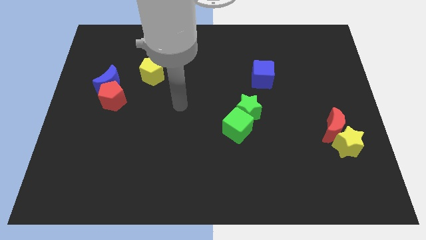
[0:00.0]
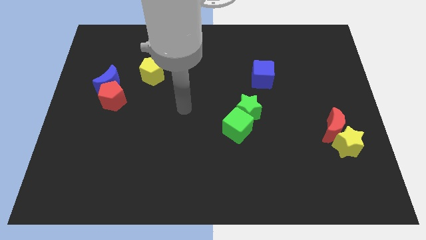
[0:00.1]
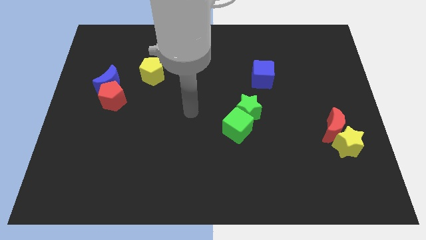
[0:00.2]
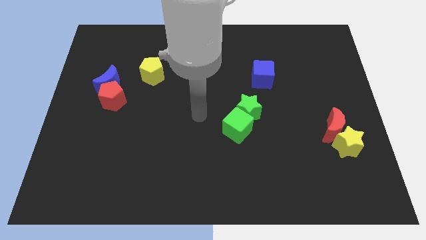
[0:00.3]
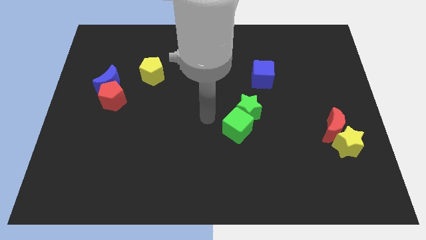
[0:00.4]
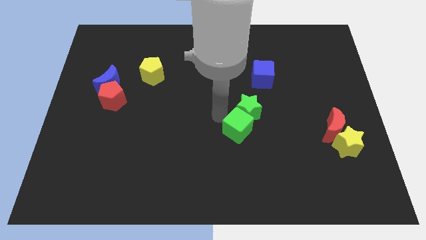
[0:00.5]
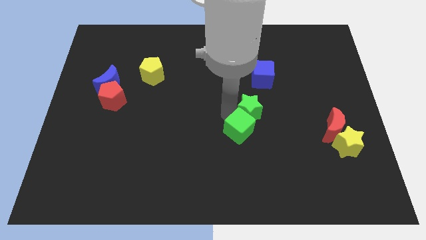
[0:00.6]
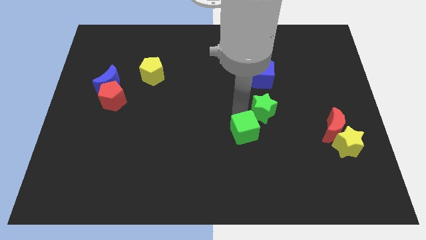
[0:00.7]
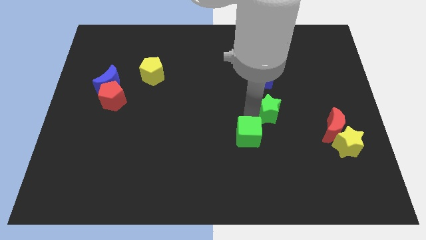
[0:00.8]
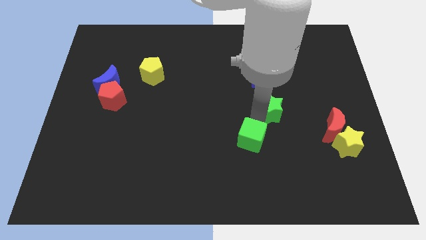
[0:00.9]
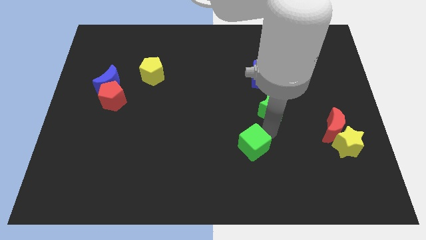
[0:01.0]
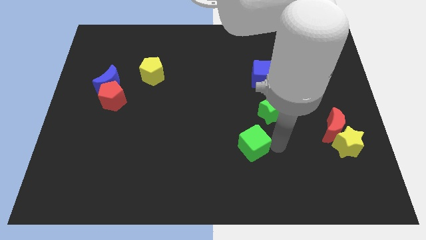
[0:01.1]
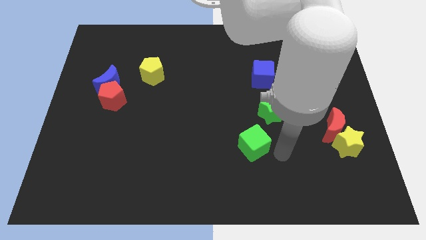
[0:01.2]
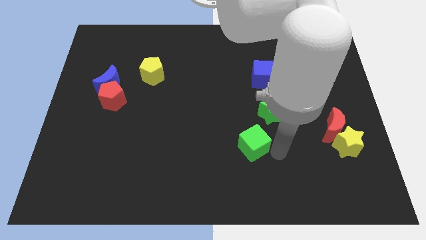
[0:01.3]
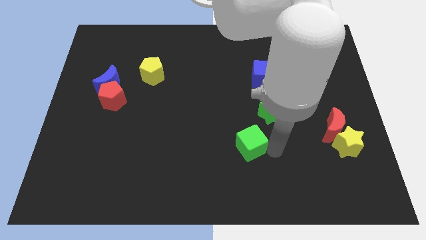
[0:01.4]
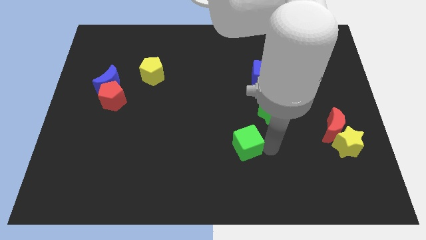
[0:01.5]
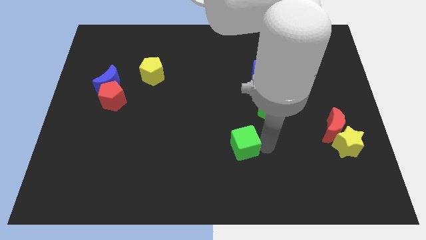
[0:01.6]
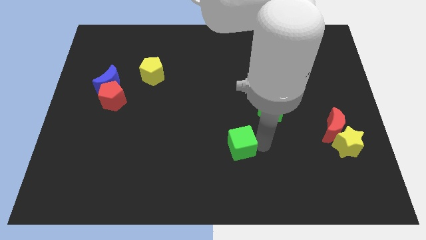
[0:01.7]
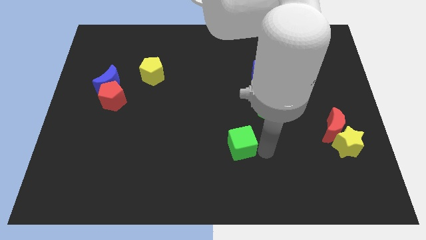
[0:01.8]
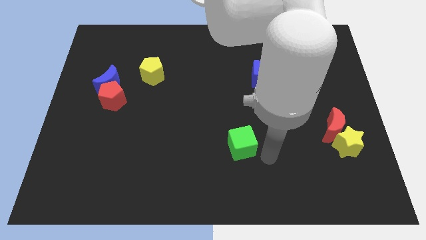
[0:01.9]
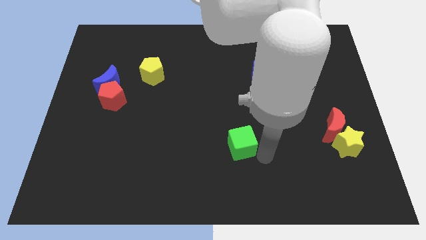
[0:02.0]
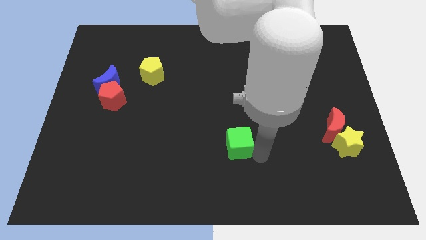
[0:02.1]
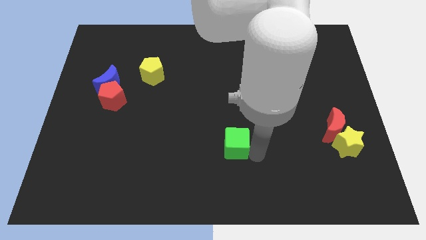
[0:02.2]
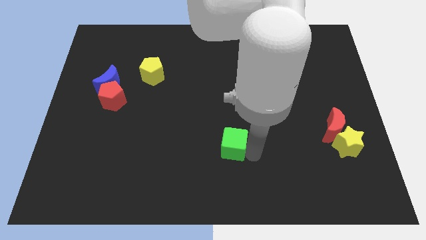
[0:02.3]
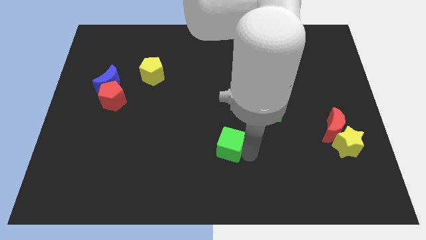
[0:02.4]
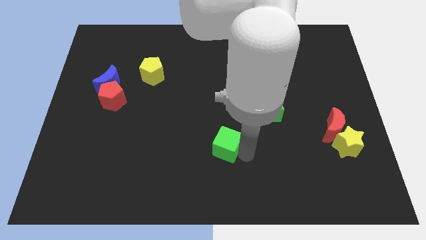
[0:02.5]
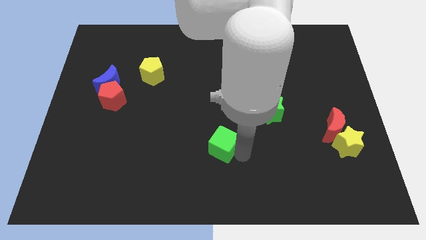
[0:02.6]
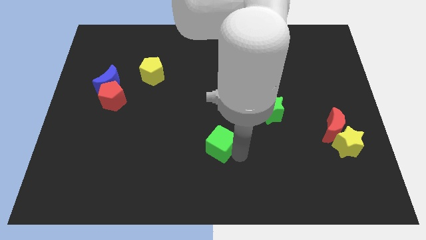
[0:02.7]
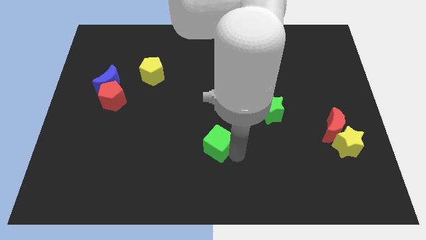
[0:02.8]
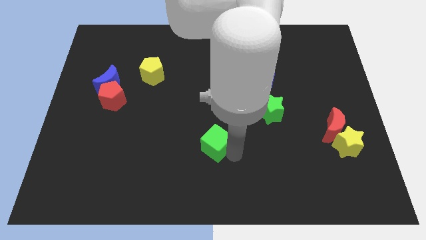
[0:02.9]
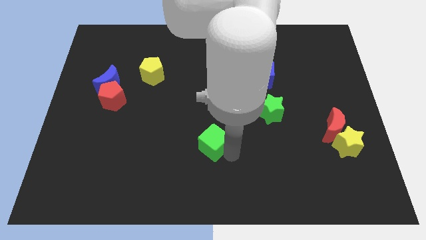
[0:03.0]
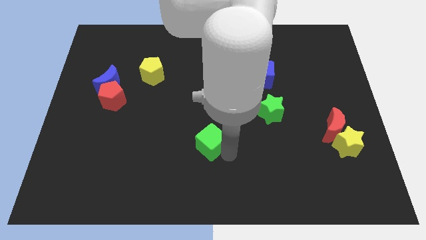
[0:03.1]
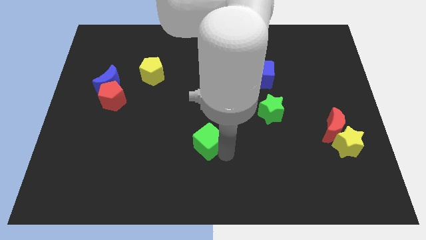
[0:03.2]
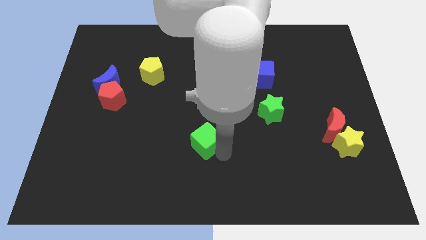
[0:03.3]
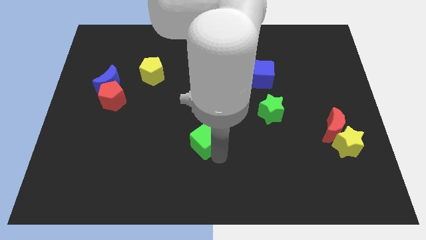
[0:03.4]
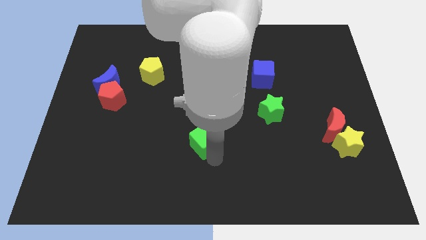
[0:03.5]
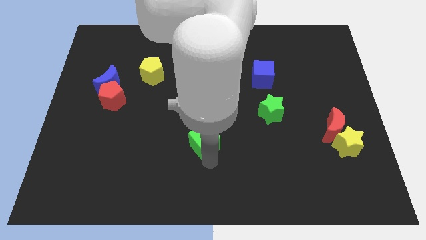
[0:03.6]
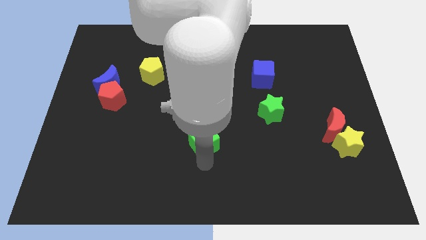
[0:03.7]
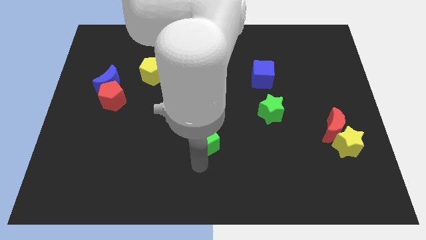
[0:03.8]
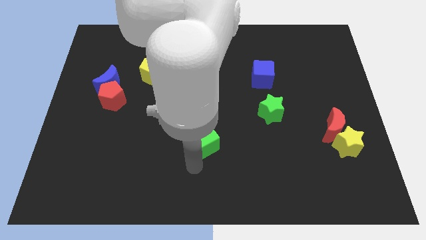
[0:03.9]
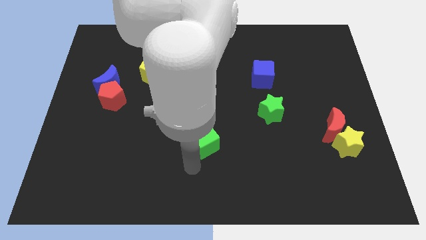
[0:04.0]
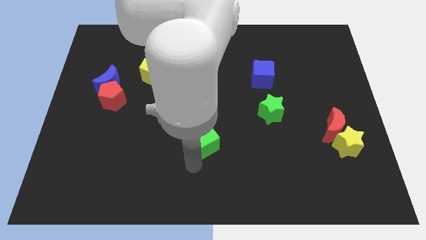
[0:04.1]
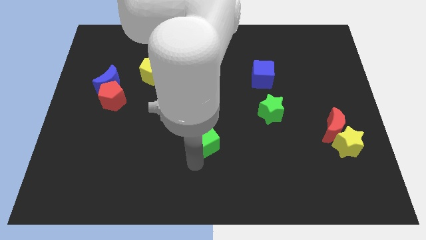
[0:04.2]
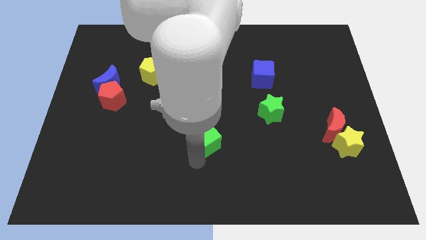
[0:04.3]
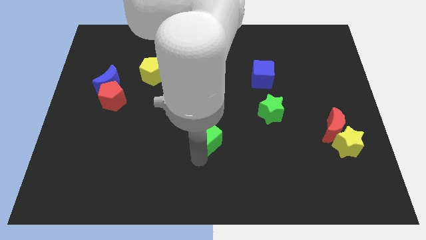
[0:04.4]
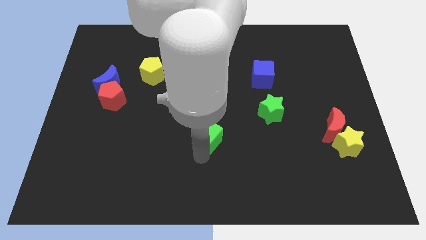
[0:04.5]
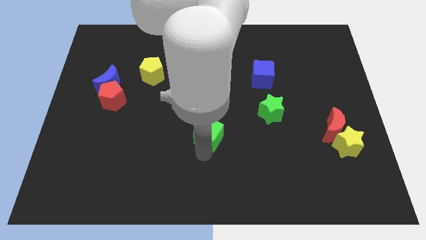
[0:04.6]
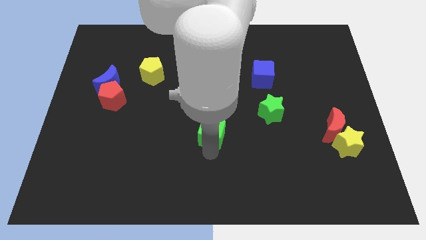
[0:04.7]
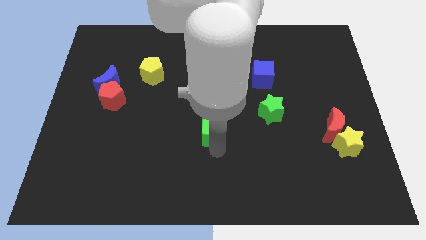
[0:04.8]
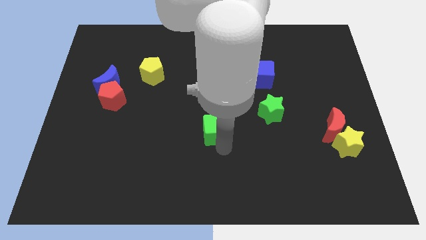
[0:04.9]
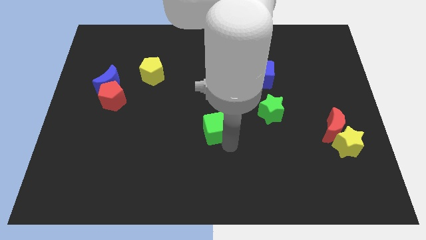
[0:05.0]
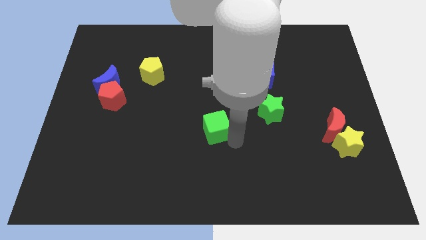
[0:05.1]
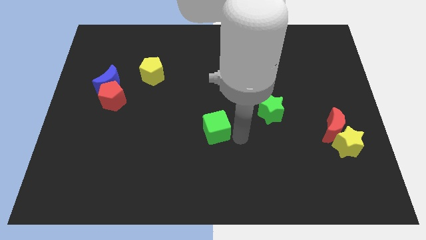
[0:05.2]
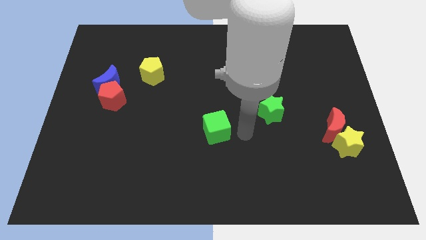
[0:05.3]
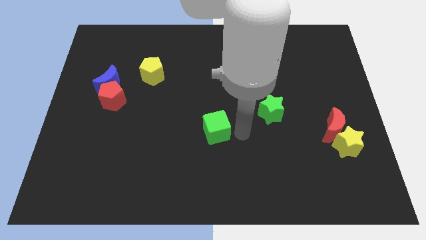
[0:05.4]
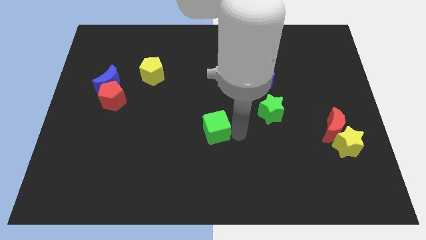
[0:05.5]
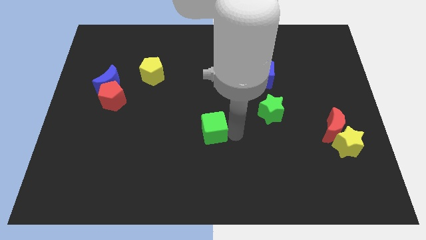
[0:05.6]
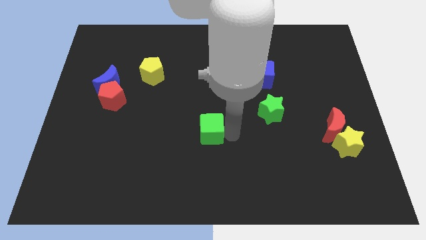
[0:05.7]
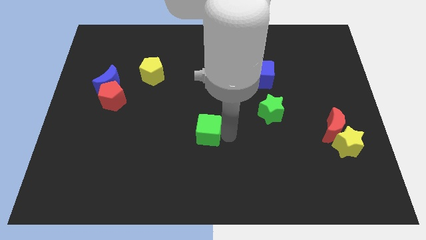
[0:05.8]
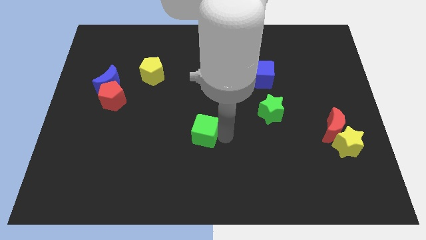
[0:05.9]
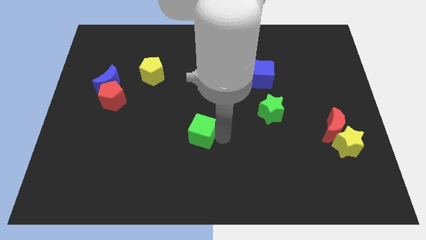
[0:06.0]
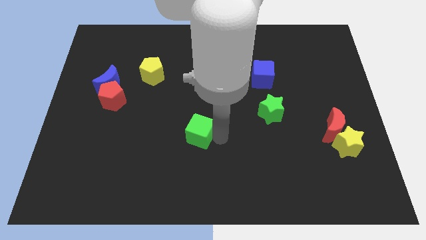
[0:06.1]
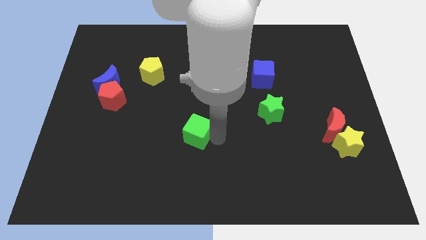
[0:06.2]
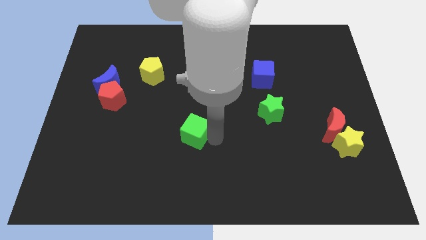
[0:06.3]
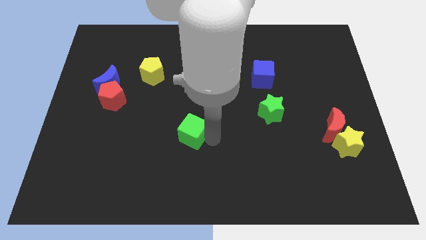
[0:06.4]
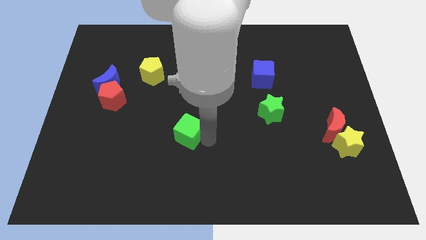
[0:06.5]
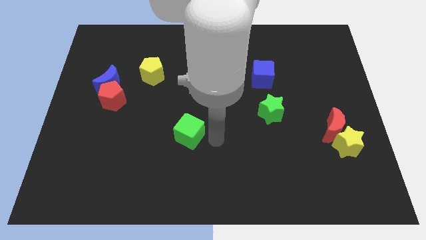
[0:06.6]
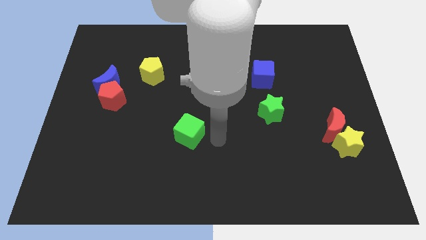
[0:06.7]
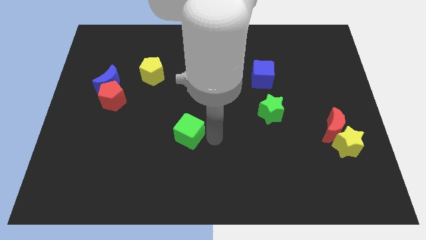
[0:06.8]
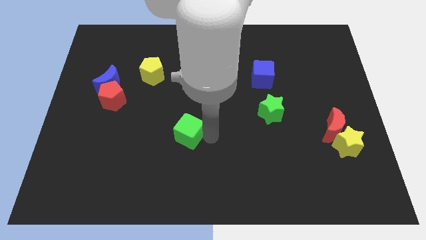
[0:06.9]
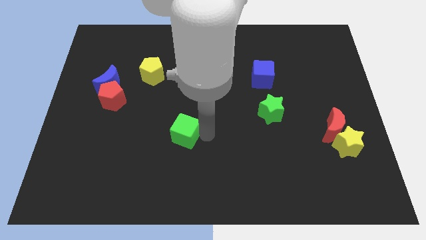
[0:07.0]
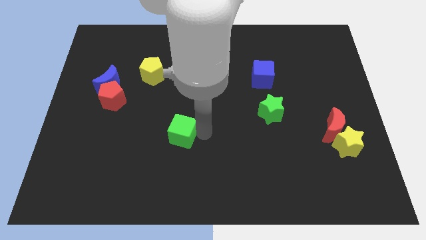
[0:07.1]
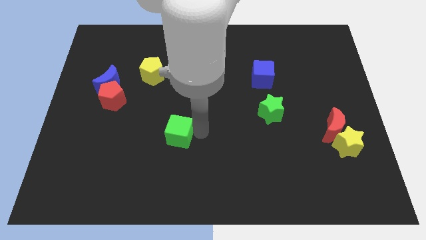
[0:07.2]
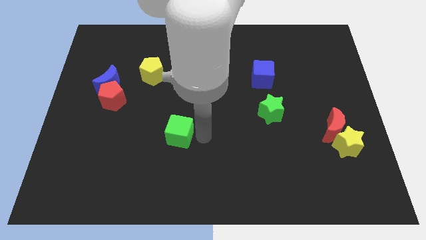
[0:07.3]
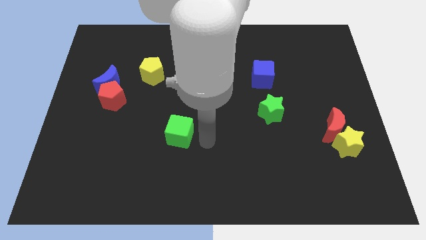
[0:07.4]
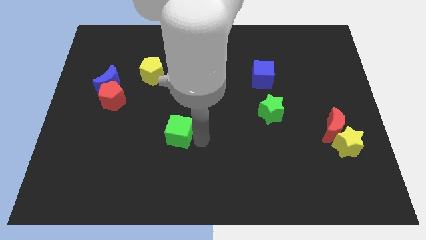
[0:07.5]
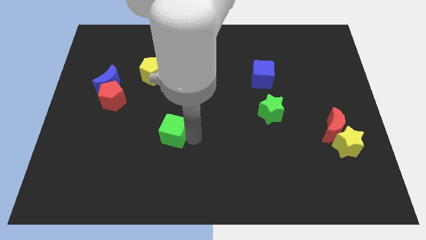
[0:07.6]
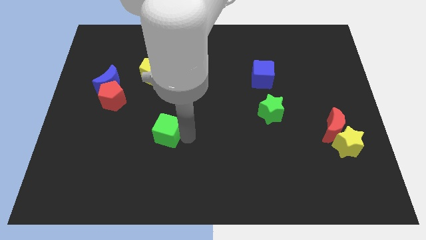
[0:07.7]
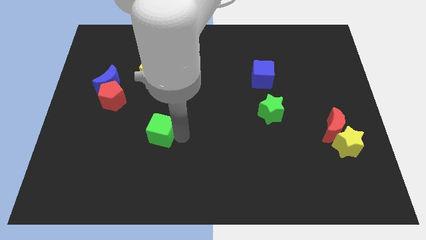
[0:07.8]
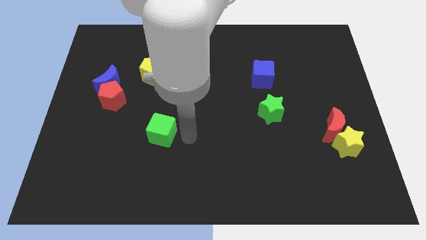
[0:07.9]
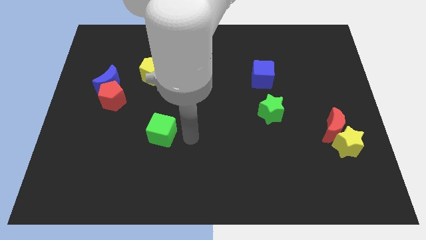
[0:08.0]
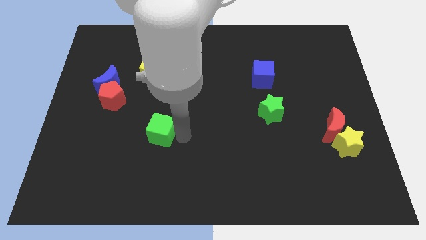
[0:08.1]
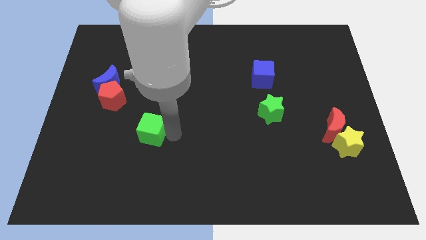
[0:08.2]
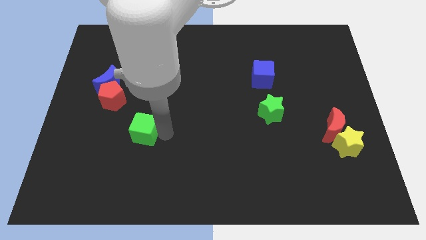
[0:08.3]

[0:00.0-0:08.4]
push the green cube left
